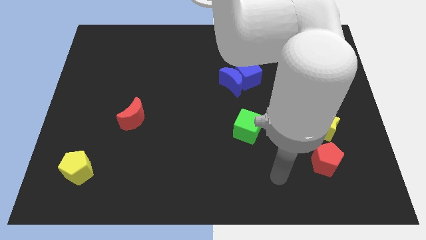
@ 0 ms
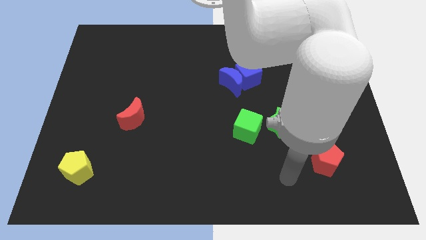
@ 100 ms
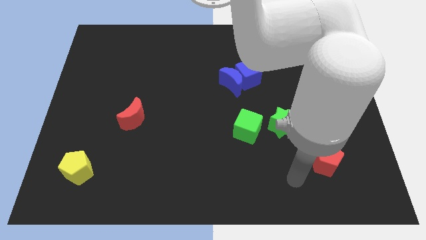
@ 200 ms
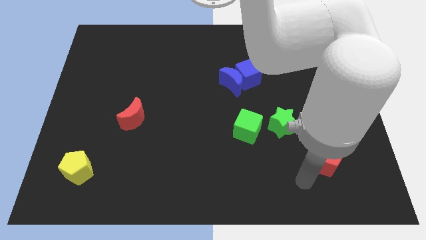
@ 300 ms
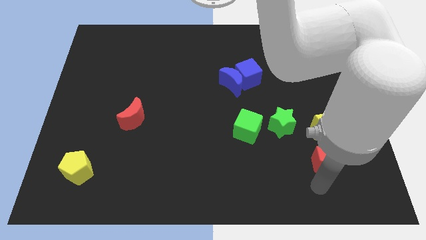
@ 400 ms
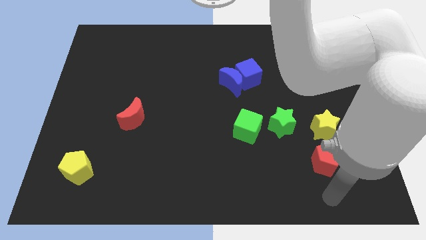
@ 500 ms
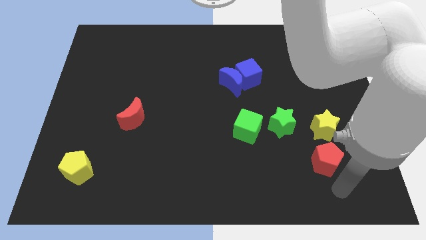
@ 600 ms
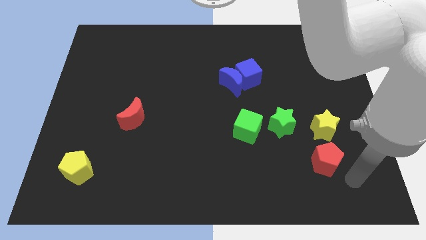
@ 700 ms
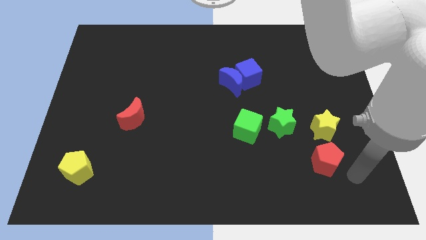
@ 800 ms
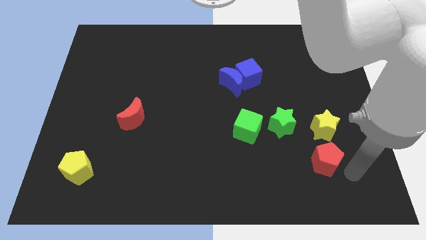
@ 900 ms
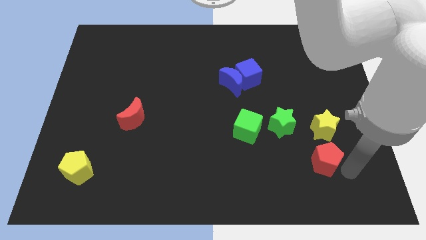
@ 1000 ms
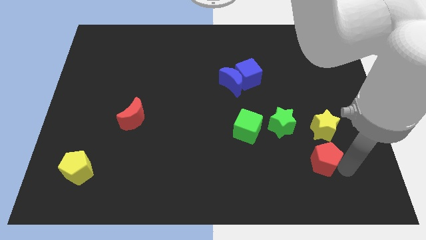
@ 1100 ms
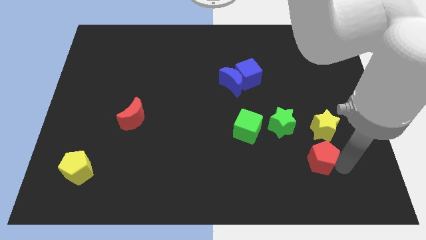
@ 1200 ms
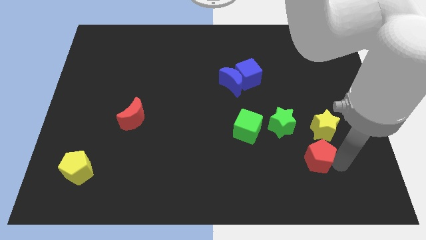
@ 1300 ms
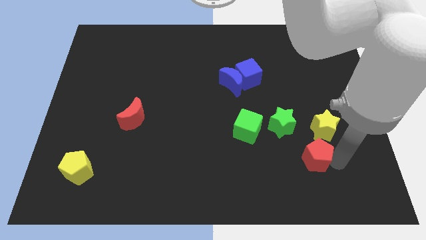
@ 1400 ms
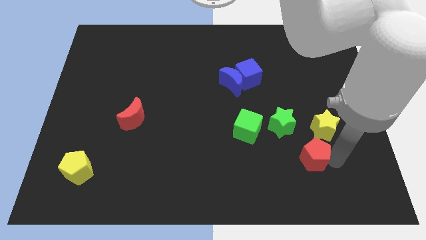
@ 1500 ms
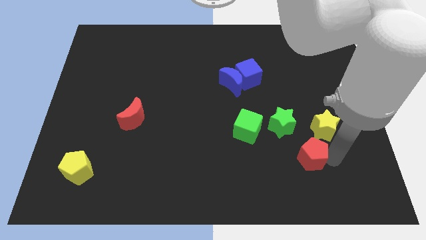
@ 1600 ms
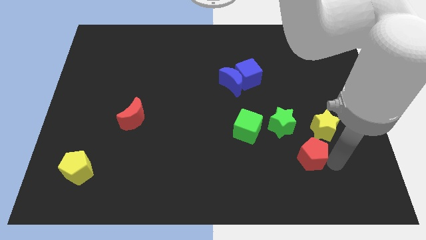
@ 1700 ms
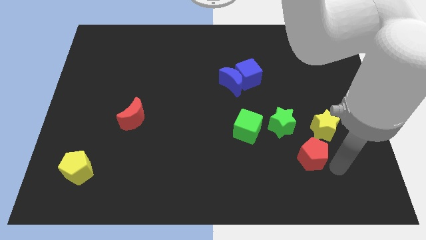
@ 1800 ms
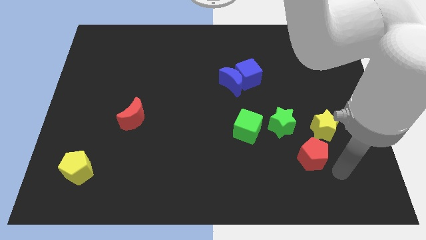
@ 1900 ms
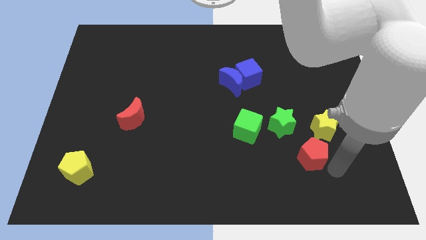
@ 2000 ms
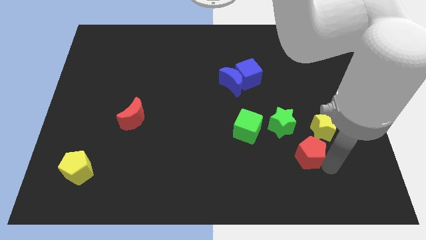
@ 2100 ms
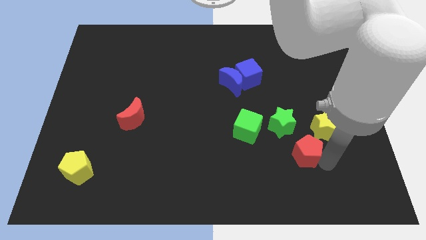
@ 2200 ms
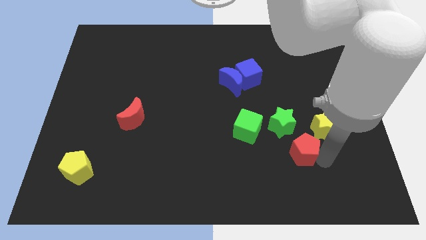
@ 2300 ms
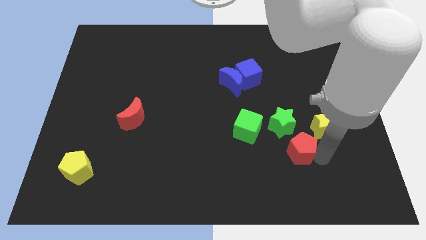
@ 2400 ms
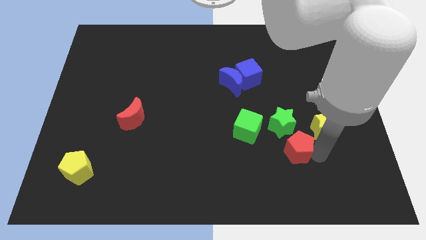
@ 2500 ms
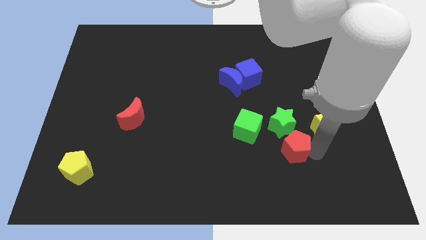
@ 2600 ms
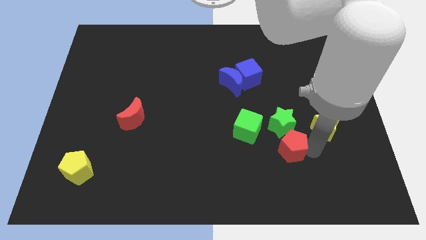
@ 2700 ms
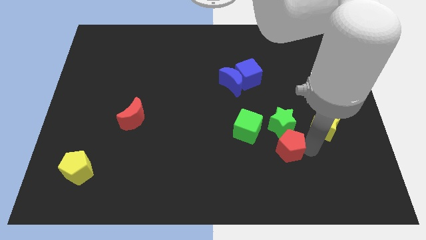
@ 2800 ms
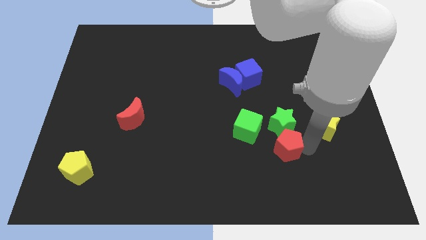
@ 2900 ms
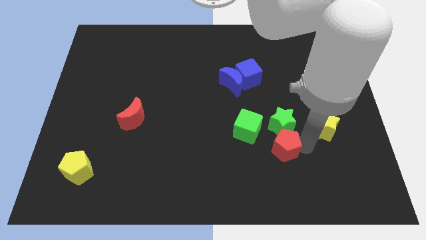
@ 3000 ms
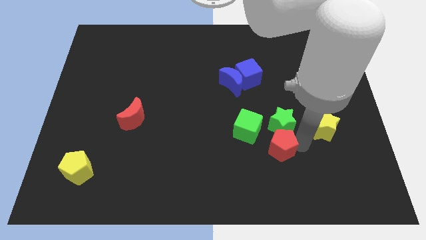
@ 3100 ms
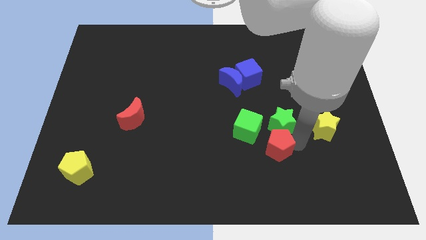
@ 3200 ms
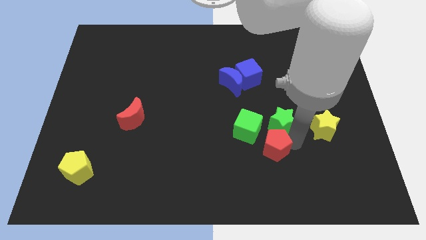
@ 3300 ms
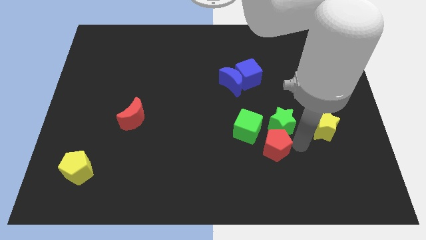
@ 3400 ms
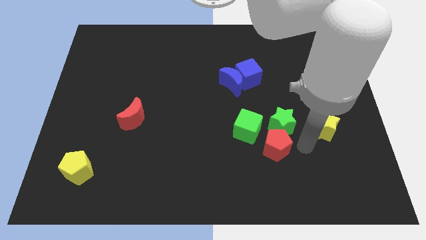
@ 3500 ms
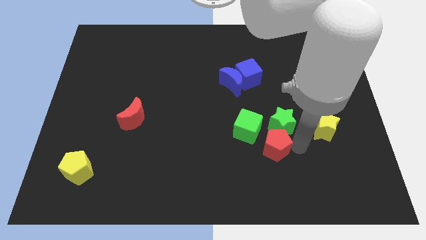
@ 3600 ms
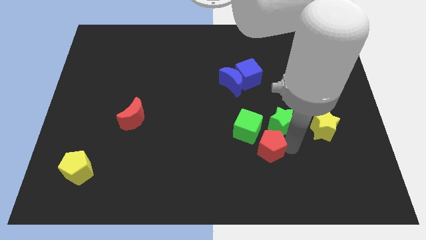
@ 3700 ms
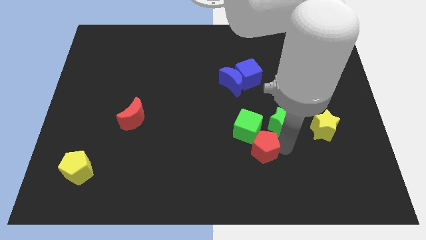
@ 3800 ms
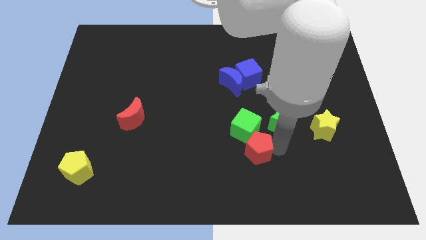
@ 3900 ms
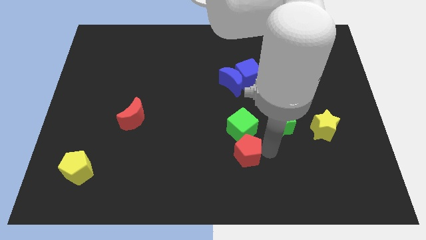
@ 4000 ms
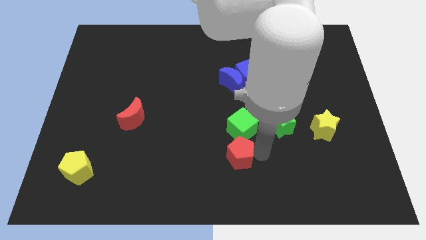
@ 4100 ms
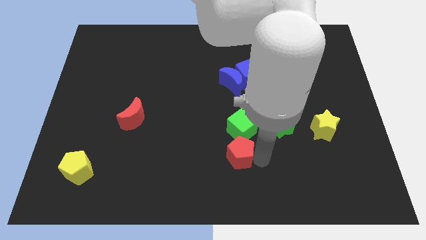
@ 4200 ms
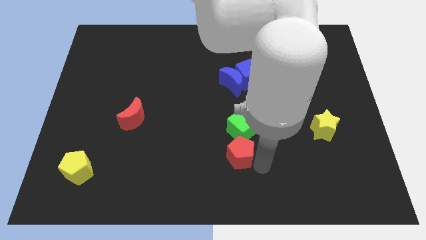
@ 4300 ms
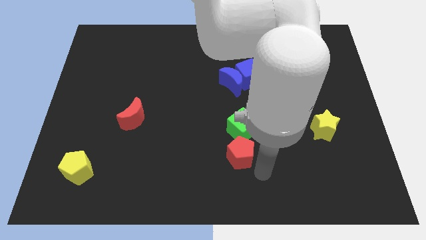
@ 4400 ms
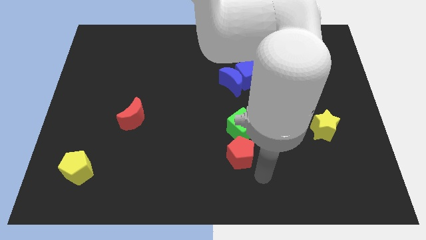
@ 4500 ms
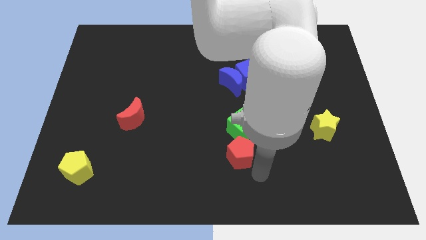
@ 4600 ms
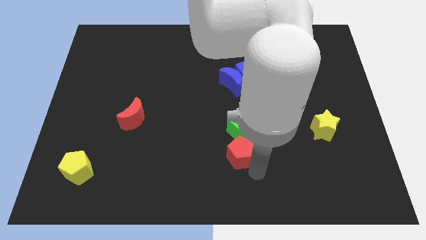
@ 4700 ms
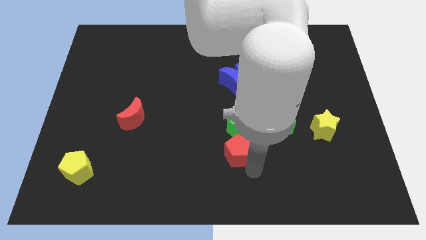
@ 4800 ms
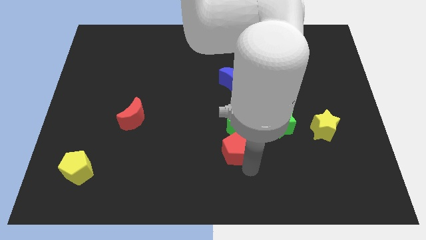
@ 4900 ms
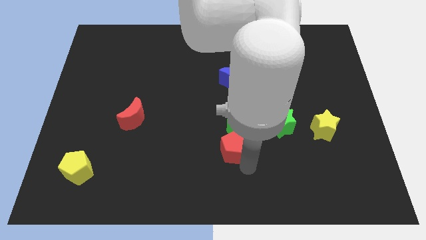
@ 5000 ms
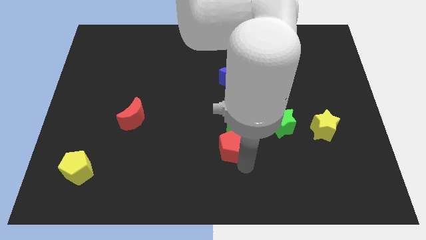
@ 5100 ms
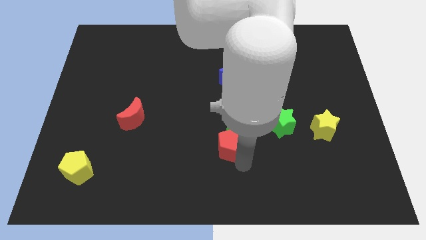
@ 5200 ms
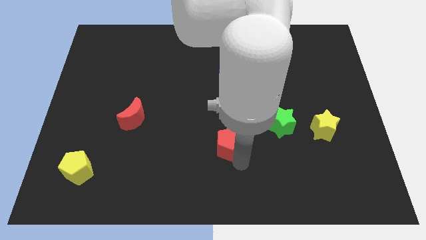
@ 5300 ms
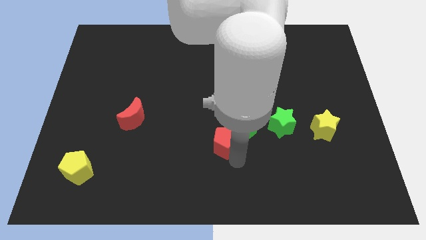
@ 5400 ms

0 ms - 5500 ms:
move the red pentagon to the center of the board
